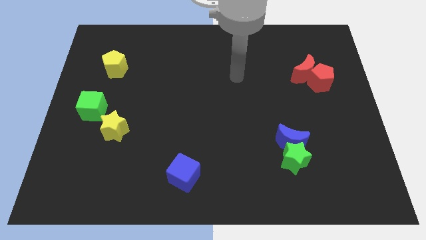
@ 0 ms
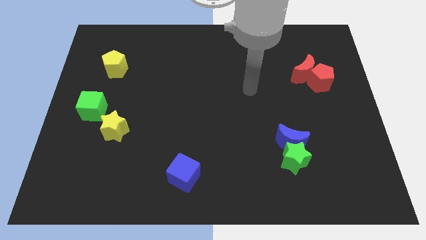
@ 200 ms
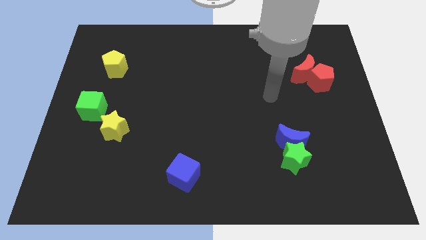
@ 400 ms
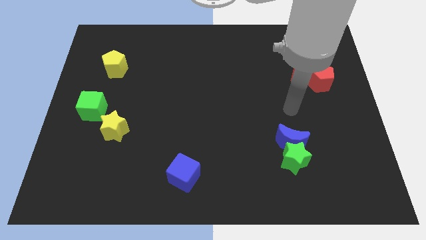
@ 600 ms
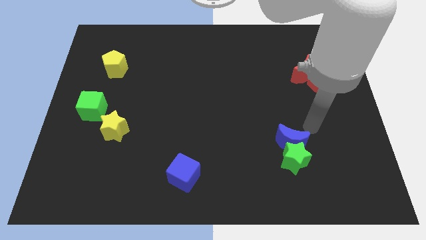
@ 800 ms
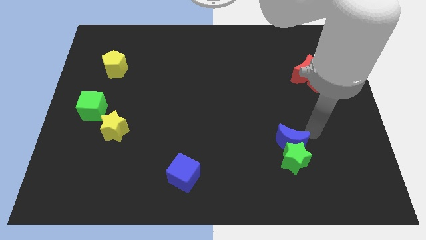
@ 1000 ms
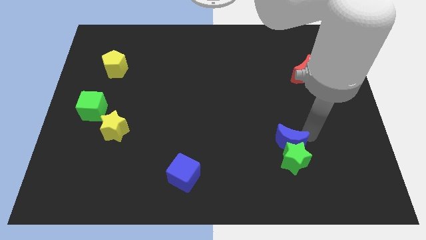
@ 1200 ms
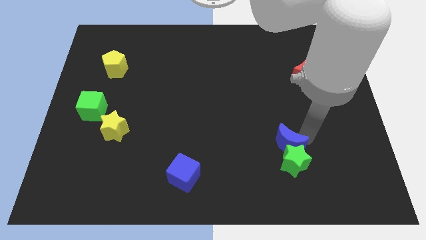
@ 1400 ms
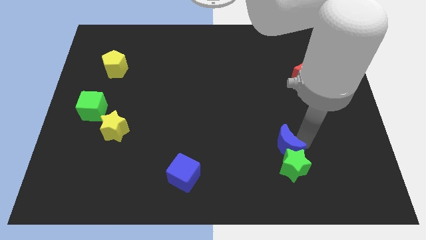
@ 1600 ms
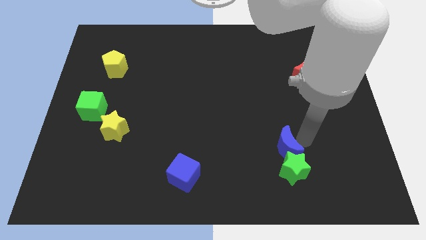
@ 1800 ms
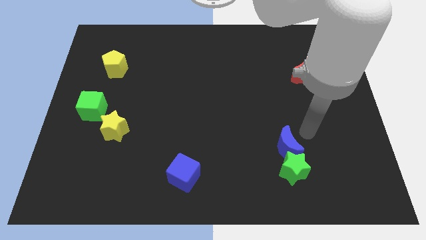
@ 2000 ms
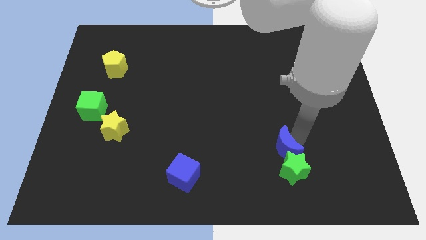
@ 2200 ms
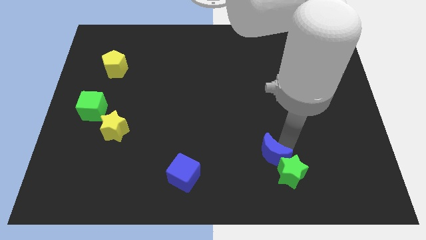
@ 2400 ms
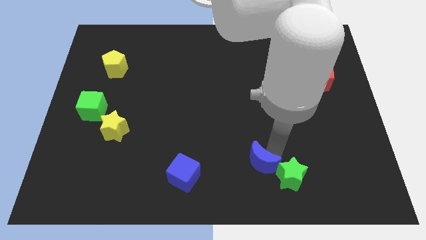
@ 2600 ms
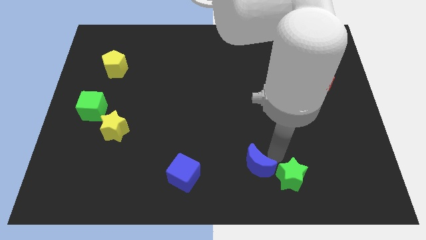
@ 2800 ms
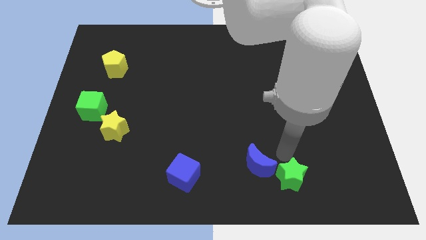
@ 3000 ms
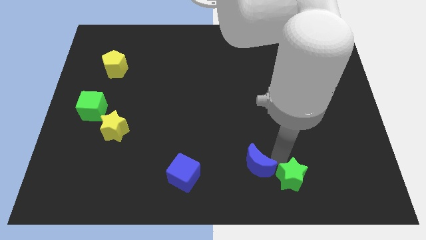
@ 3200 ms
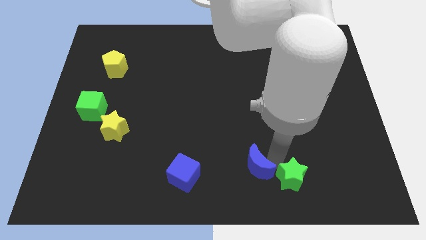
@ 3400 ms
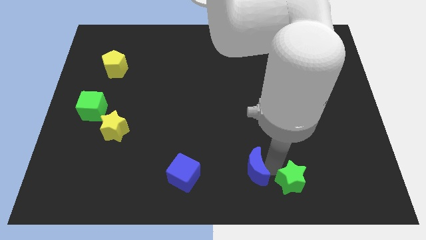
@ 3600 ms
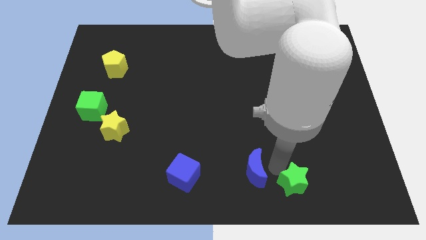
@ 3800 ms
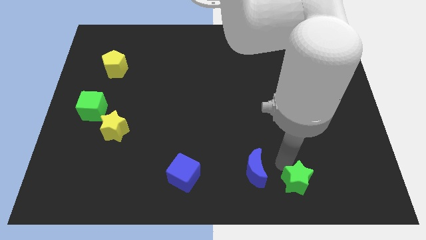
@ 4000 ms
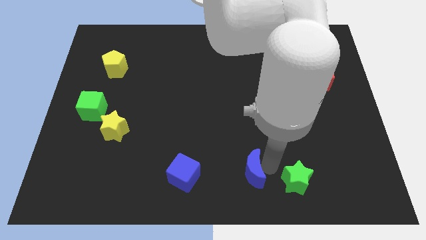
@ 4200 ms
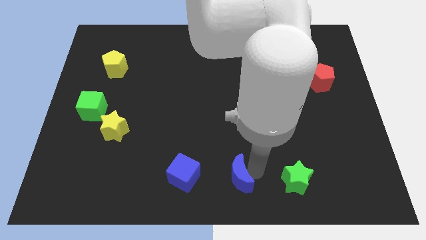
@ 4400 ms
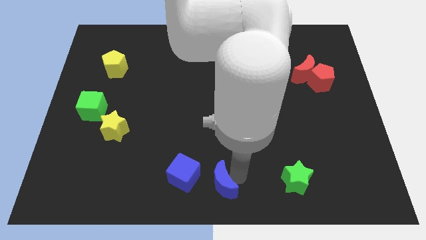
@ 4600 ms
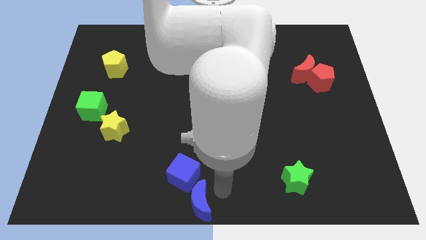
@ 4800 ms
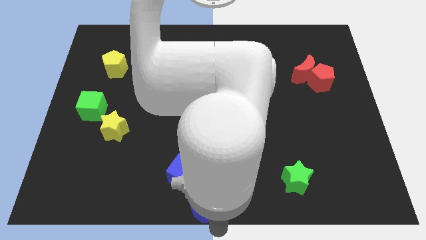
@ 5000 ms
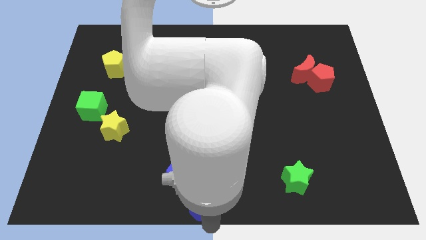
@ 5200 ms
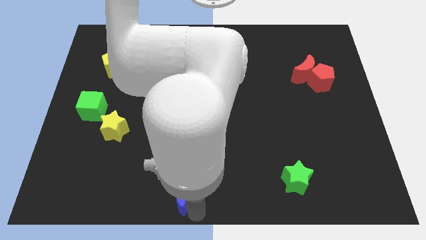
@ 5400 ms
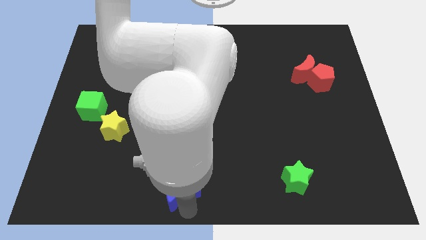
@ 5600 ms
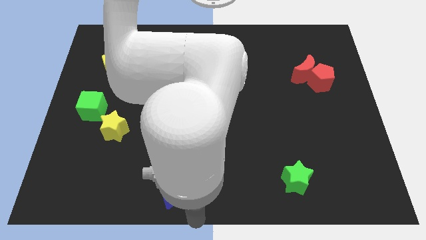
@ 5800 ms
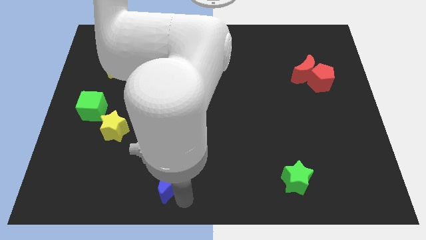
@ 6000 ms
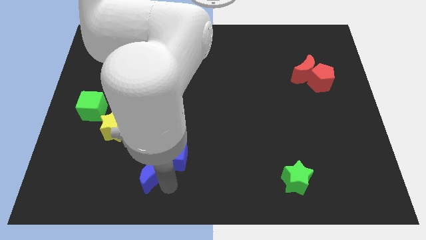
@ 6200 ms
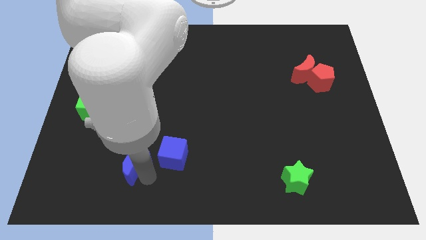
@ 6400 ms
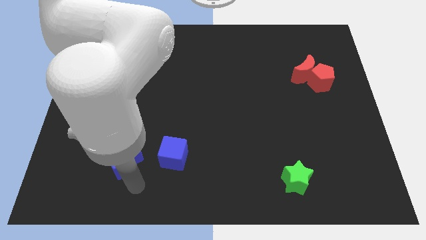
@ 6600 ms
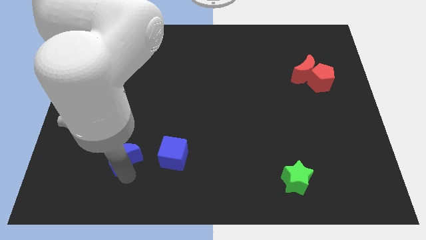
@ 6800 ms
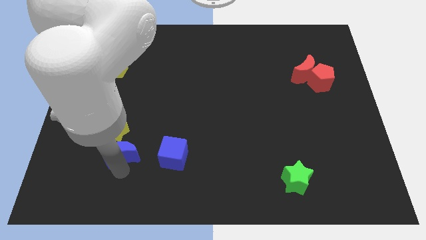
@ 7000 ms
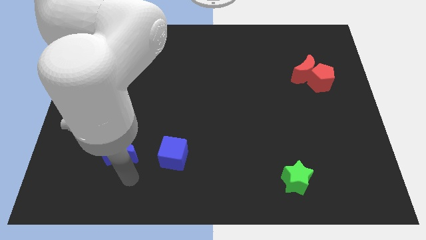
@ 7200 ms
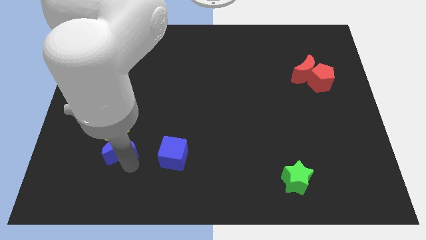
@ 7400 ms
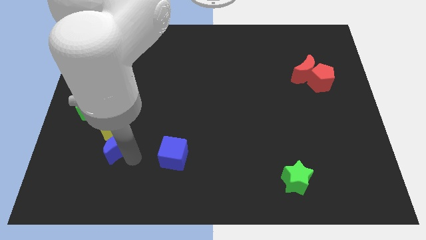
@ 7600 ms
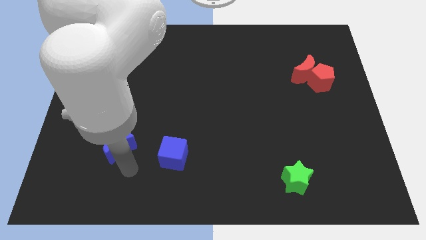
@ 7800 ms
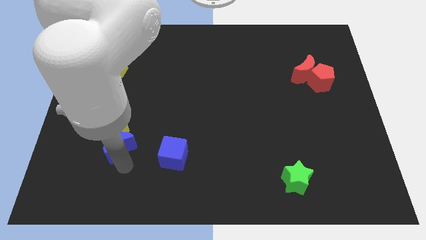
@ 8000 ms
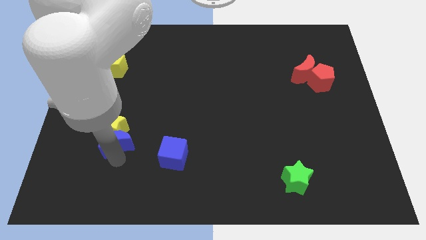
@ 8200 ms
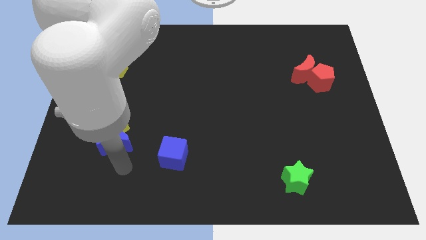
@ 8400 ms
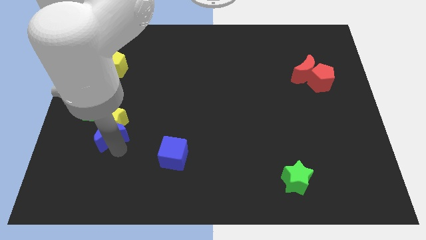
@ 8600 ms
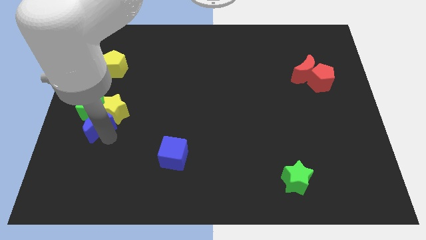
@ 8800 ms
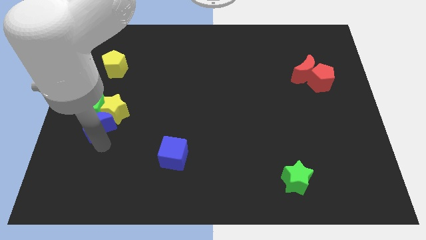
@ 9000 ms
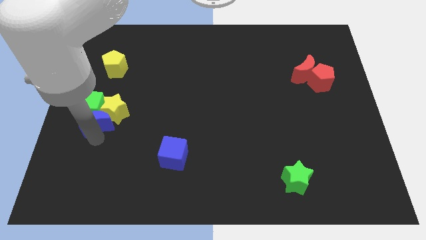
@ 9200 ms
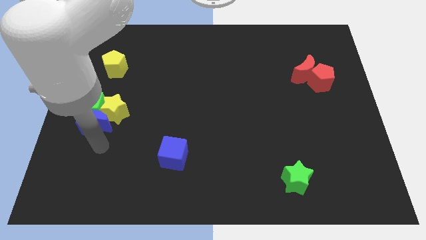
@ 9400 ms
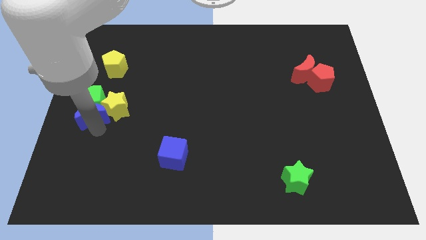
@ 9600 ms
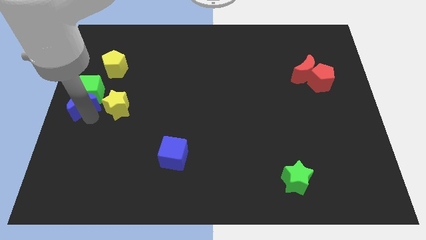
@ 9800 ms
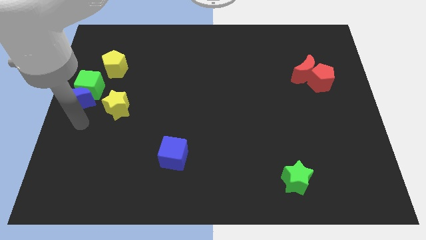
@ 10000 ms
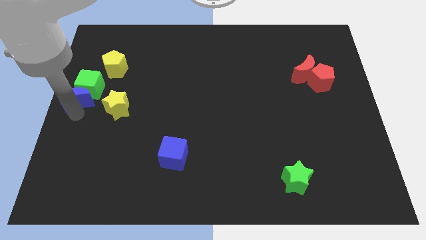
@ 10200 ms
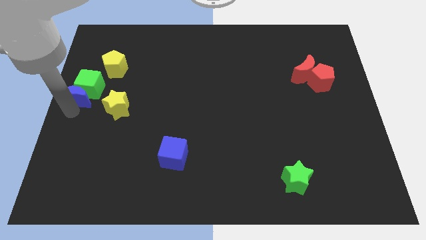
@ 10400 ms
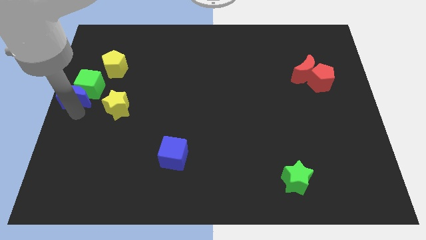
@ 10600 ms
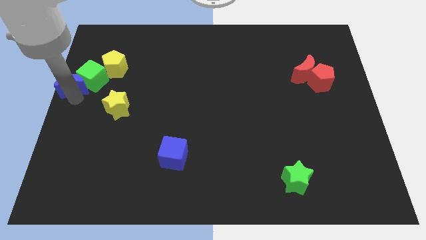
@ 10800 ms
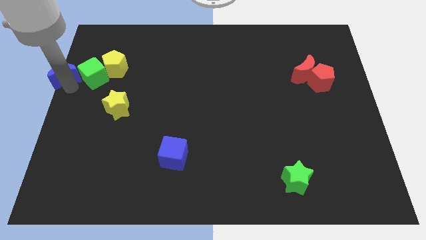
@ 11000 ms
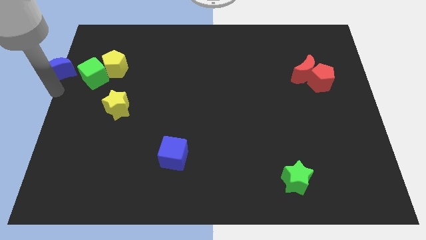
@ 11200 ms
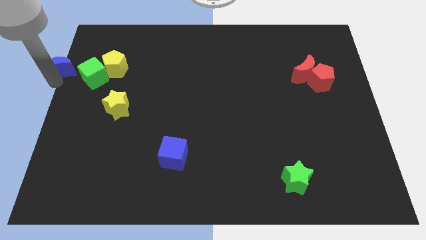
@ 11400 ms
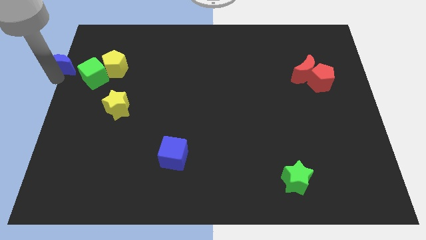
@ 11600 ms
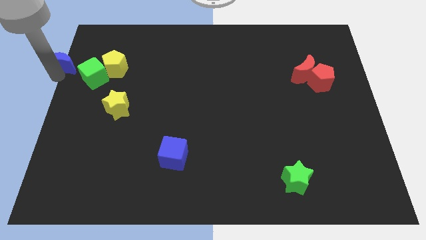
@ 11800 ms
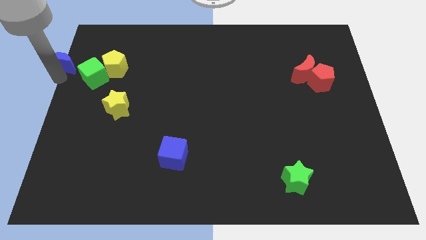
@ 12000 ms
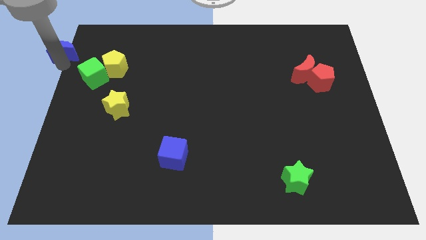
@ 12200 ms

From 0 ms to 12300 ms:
slide the blue moon to the upper left corner
